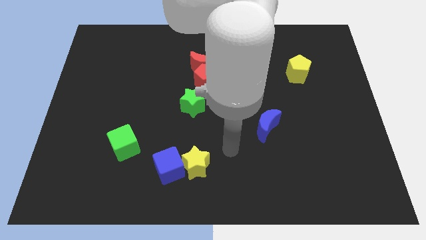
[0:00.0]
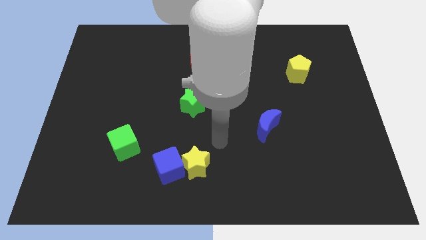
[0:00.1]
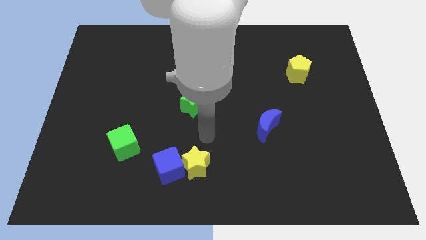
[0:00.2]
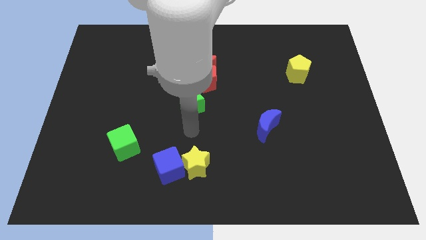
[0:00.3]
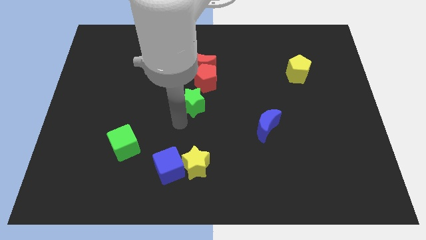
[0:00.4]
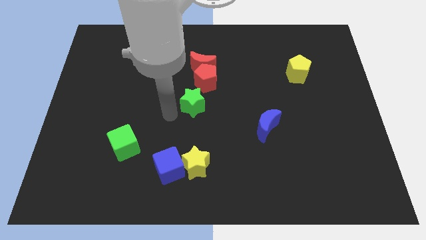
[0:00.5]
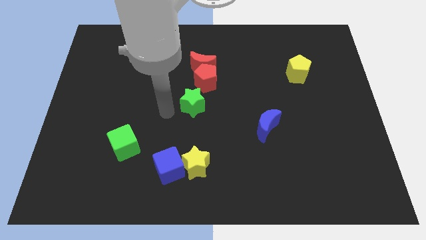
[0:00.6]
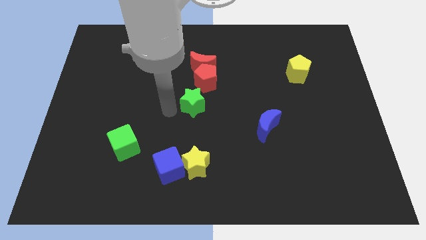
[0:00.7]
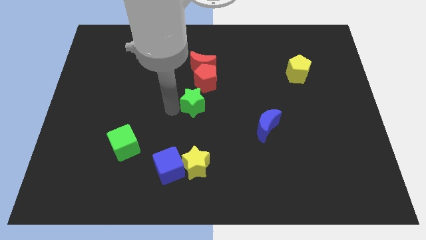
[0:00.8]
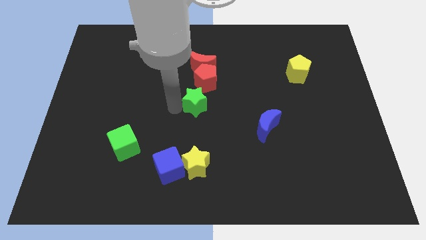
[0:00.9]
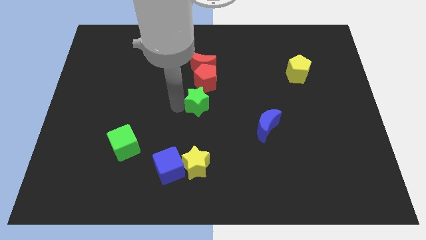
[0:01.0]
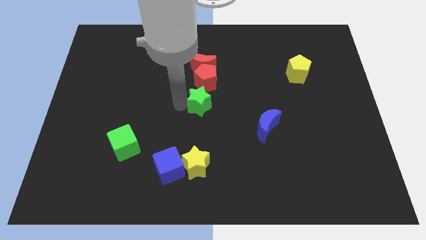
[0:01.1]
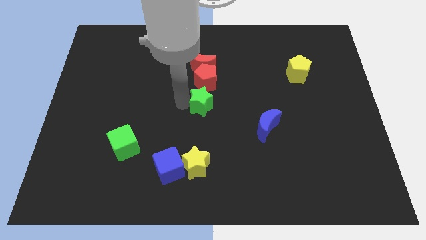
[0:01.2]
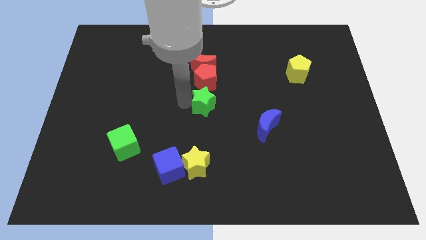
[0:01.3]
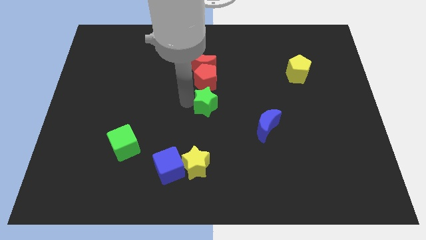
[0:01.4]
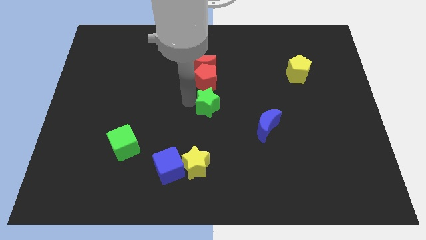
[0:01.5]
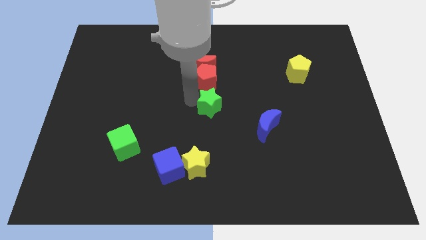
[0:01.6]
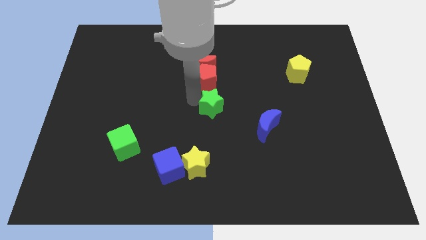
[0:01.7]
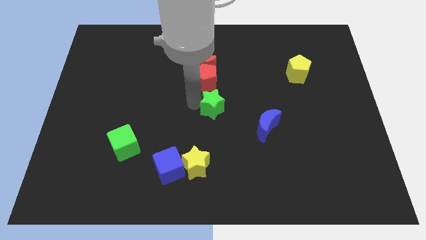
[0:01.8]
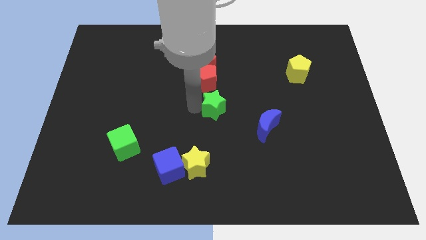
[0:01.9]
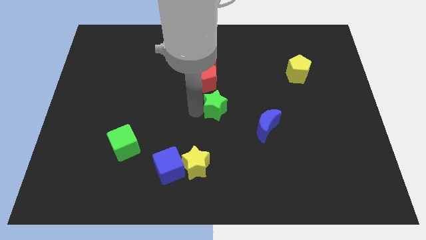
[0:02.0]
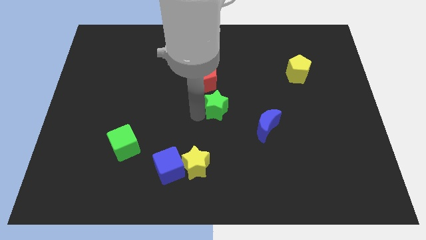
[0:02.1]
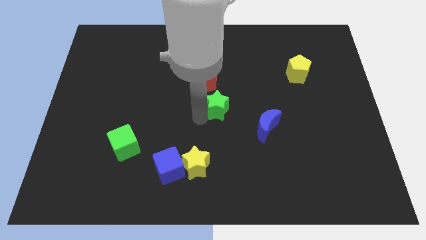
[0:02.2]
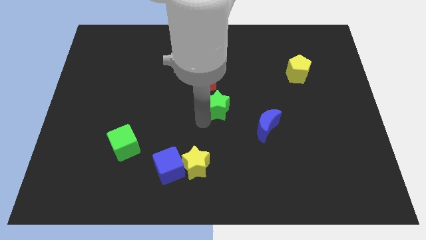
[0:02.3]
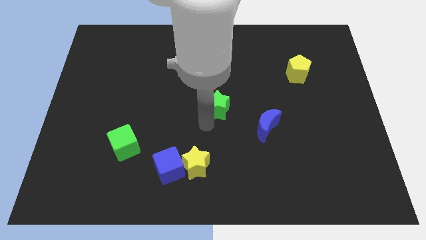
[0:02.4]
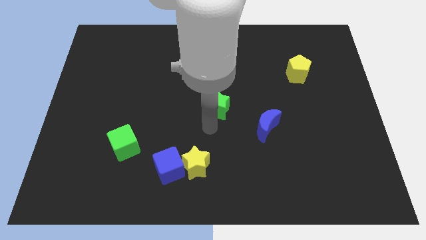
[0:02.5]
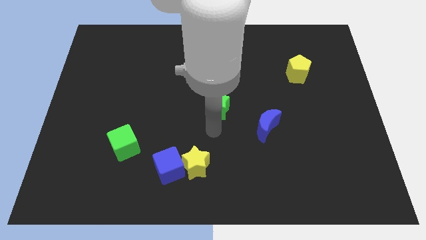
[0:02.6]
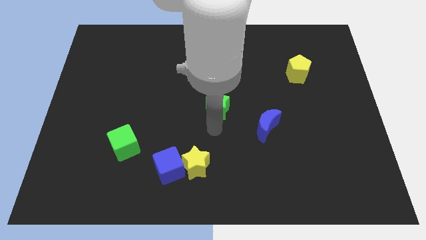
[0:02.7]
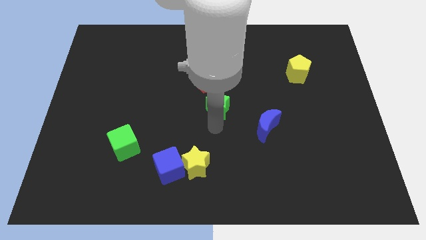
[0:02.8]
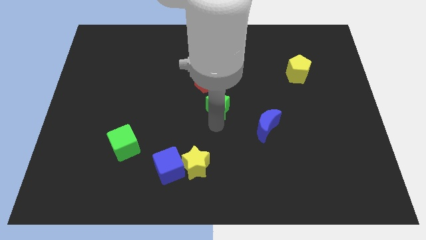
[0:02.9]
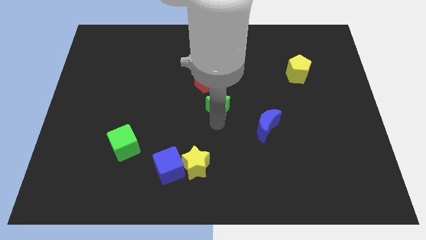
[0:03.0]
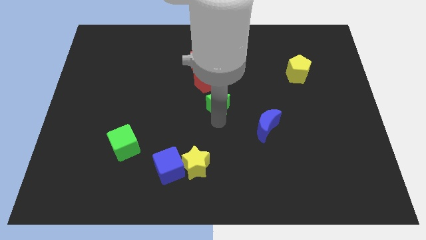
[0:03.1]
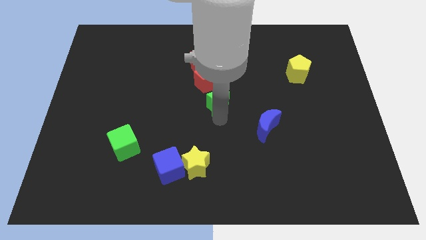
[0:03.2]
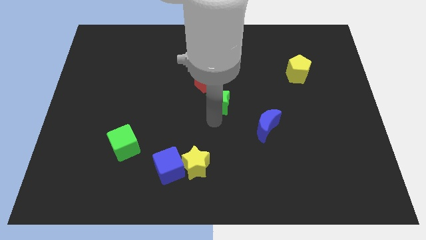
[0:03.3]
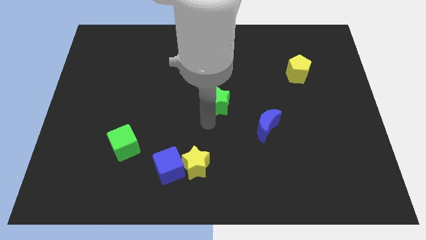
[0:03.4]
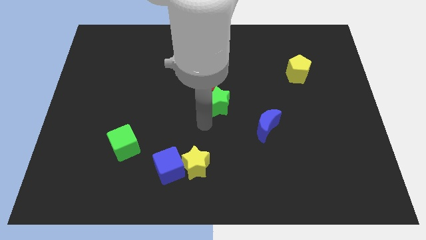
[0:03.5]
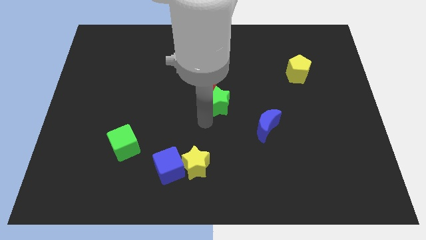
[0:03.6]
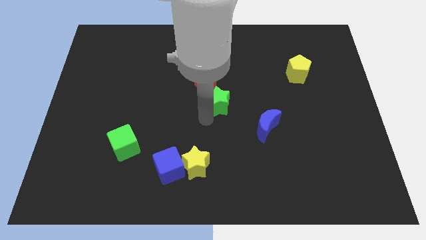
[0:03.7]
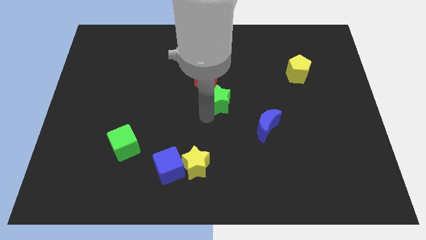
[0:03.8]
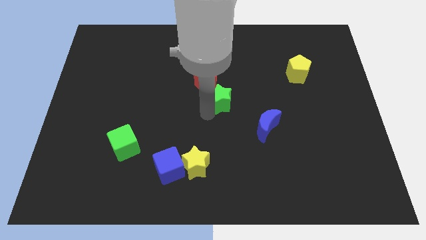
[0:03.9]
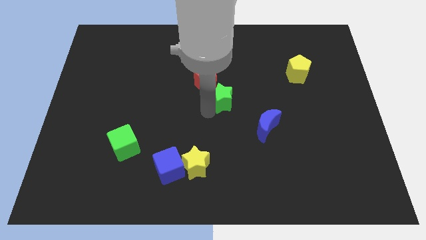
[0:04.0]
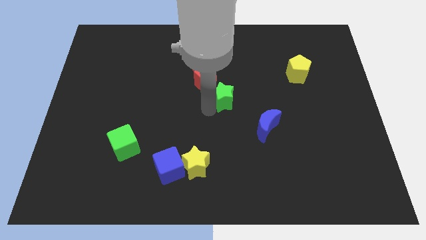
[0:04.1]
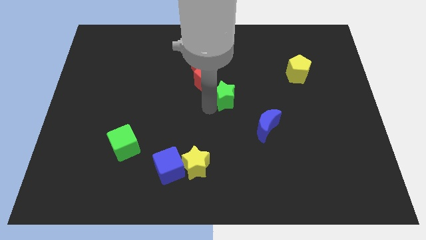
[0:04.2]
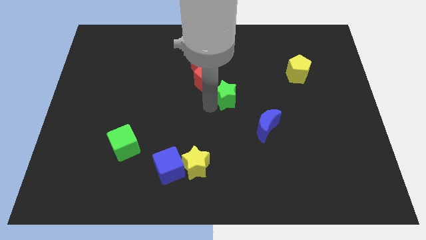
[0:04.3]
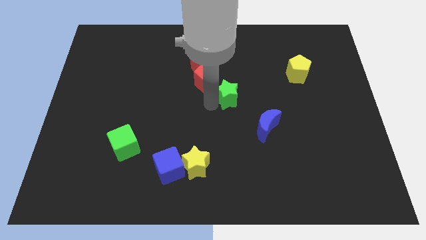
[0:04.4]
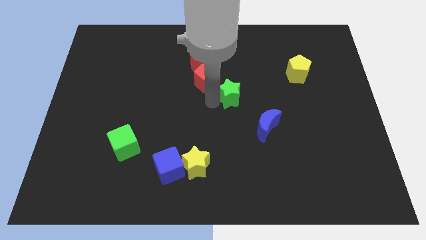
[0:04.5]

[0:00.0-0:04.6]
move the green star a little bit diagonally upwards and right

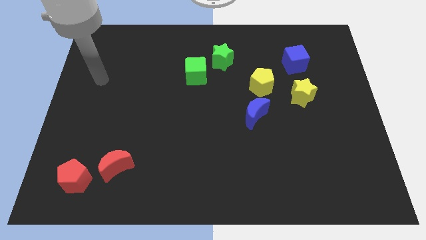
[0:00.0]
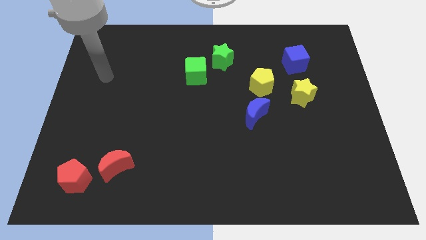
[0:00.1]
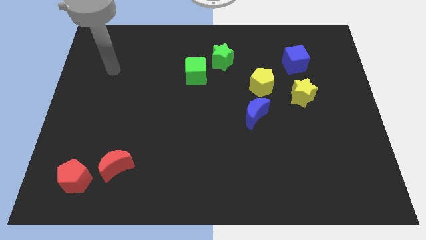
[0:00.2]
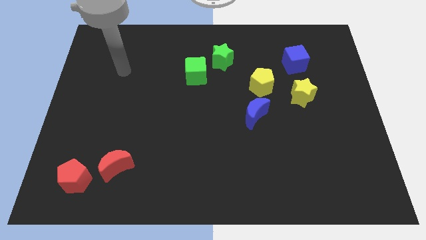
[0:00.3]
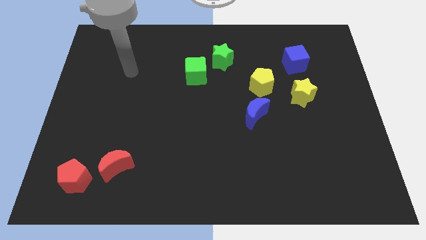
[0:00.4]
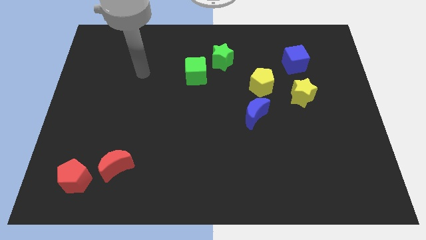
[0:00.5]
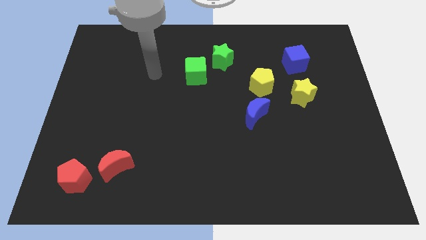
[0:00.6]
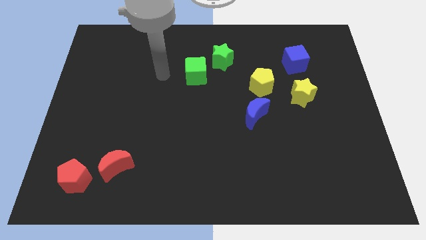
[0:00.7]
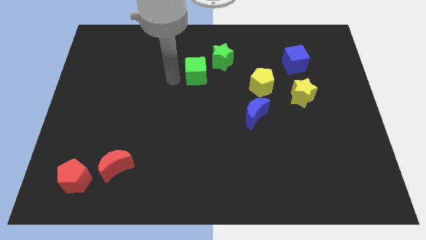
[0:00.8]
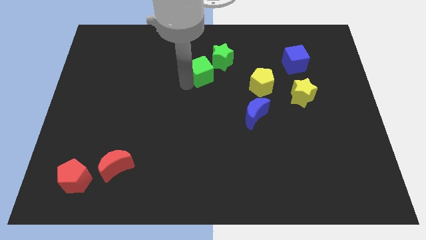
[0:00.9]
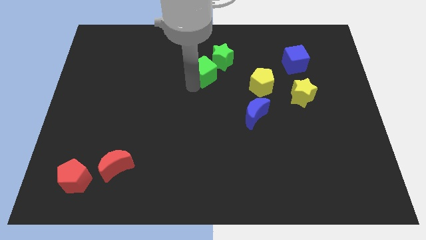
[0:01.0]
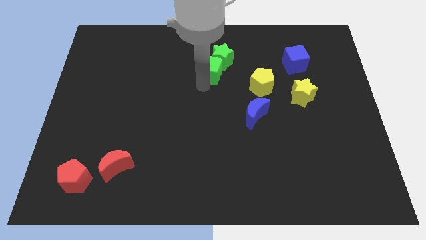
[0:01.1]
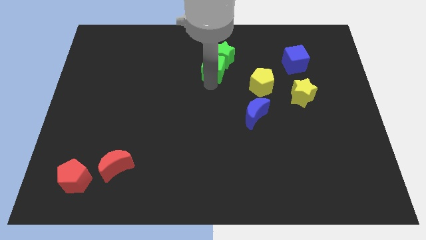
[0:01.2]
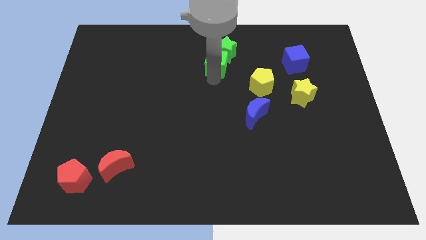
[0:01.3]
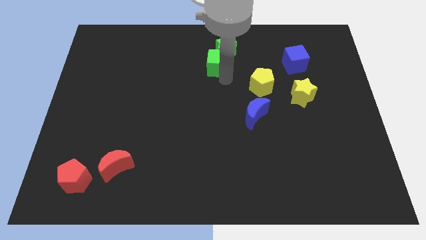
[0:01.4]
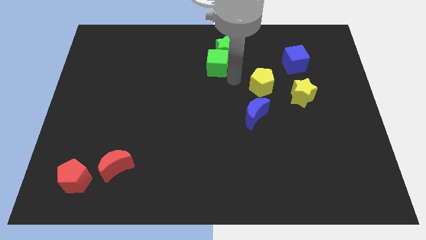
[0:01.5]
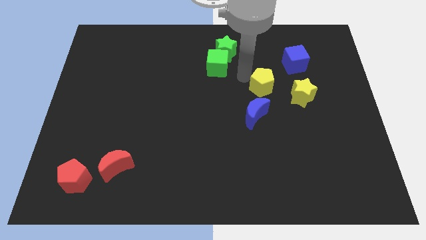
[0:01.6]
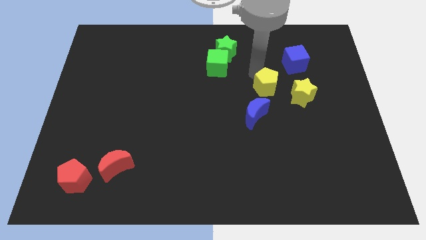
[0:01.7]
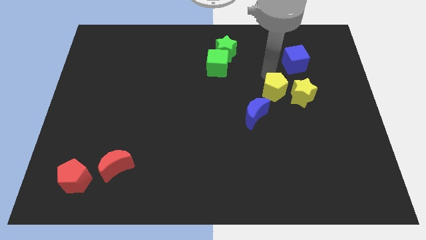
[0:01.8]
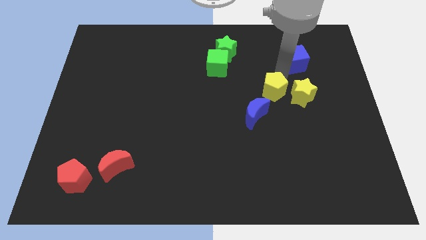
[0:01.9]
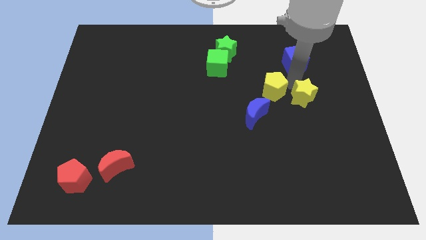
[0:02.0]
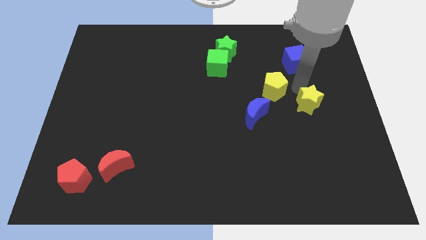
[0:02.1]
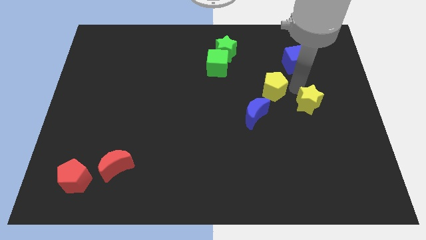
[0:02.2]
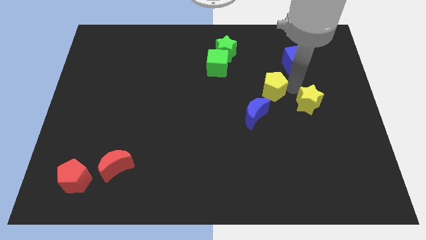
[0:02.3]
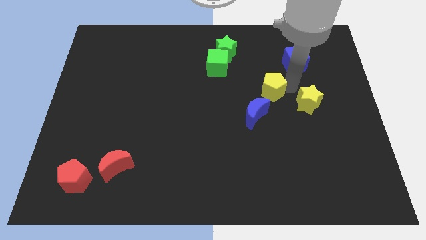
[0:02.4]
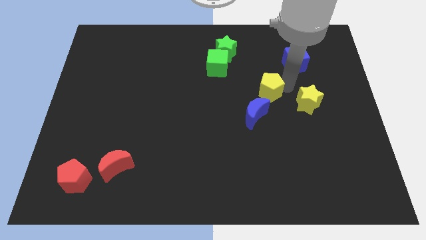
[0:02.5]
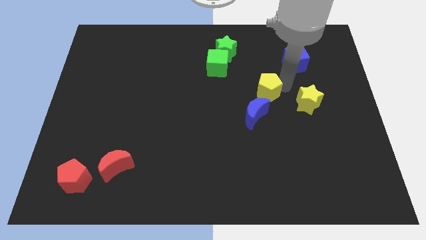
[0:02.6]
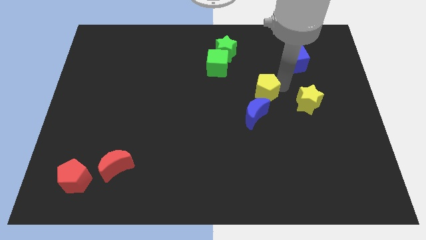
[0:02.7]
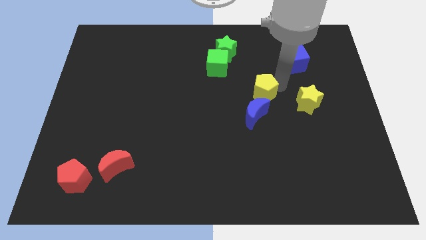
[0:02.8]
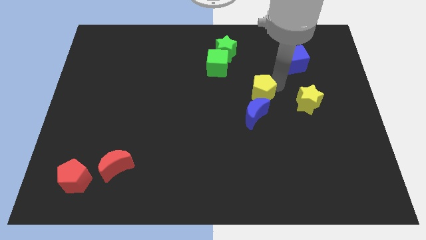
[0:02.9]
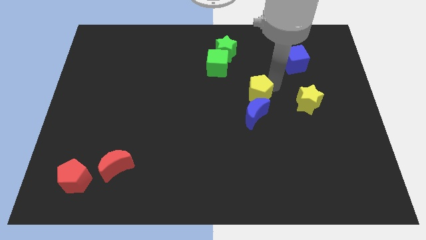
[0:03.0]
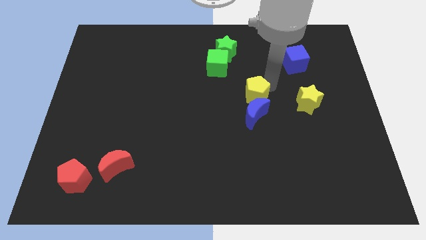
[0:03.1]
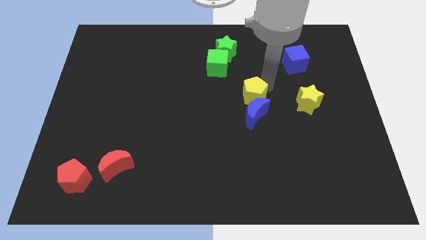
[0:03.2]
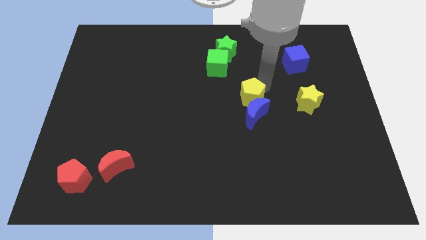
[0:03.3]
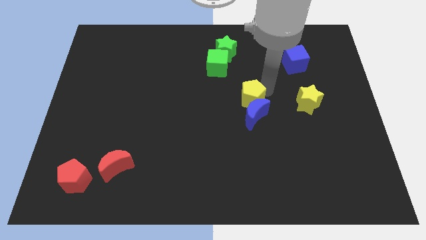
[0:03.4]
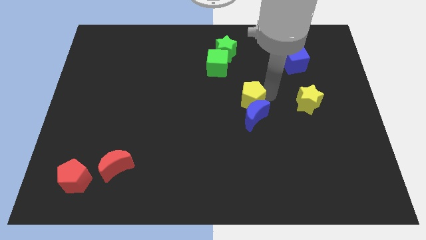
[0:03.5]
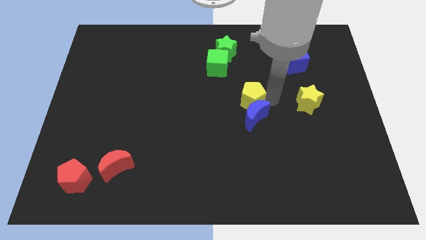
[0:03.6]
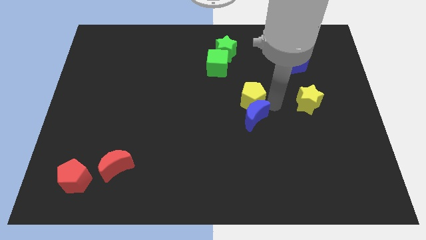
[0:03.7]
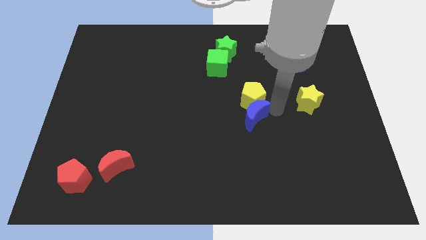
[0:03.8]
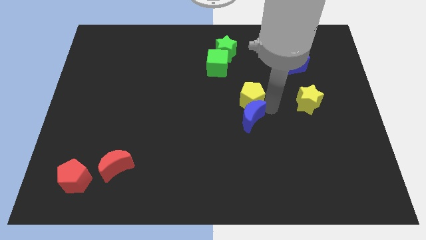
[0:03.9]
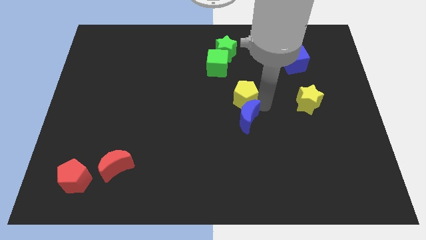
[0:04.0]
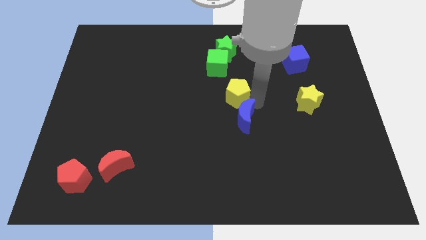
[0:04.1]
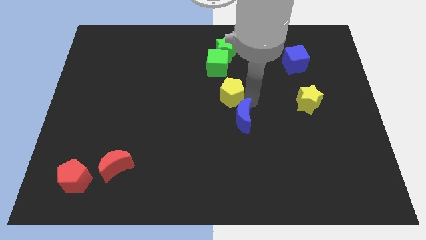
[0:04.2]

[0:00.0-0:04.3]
move the yellow pentagon to the left slightly
